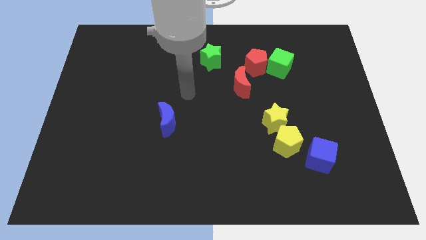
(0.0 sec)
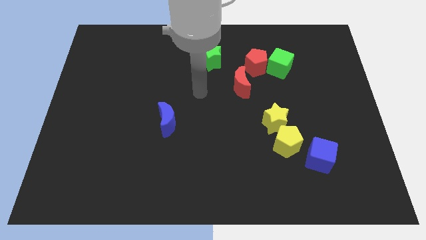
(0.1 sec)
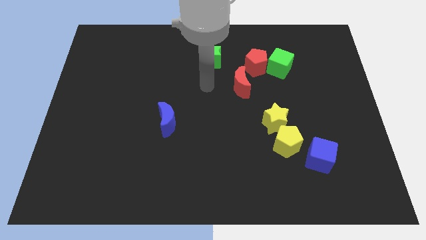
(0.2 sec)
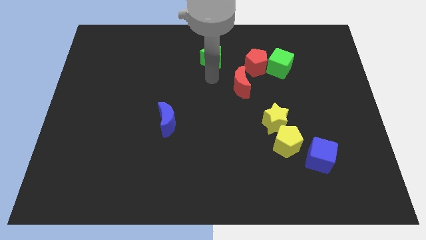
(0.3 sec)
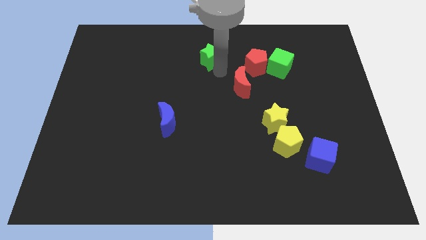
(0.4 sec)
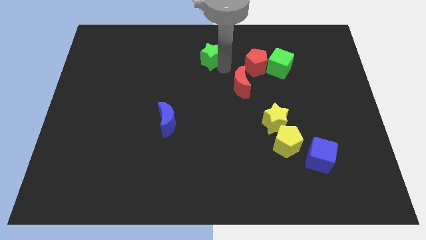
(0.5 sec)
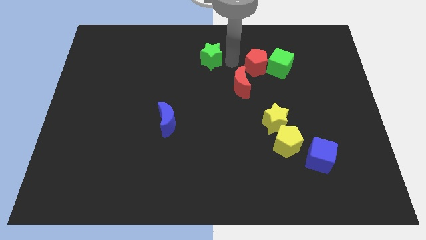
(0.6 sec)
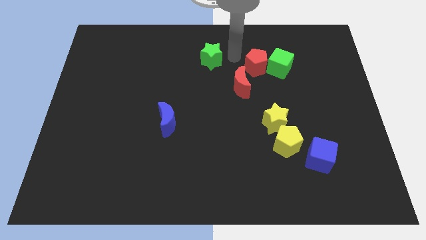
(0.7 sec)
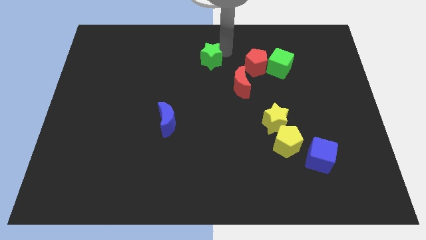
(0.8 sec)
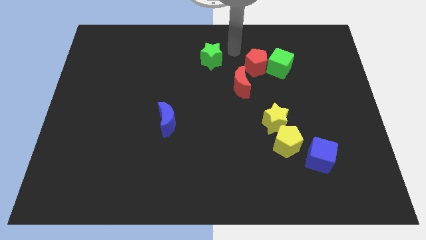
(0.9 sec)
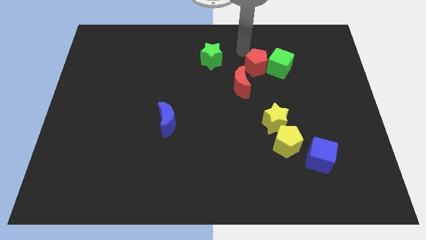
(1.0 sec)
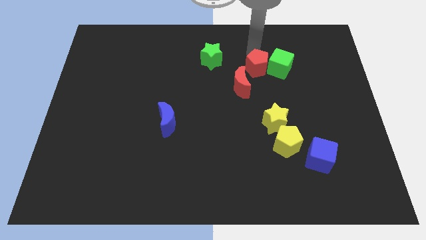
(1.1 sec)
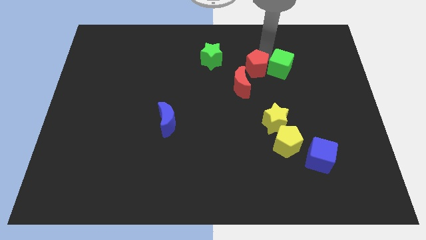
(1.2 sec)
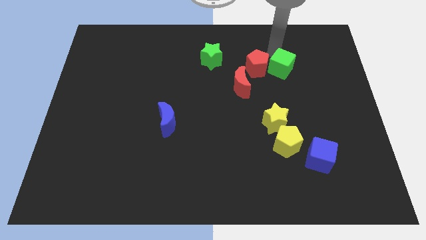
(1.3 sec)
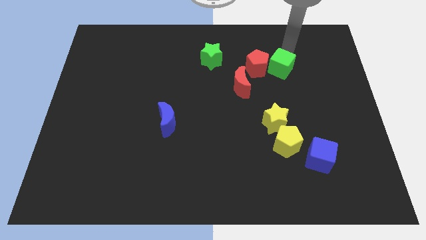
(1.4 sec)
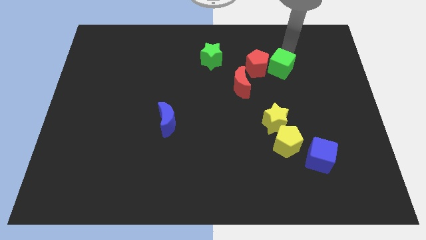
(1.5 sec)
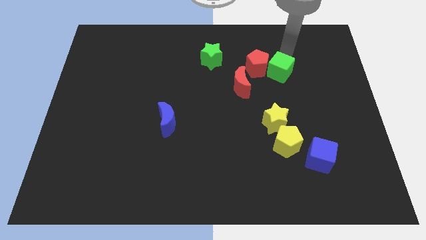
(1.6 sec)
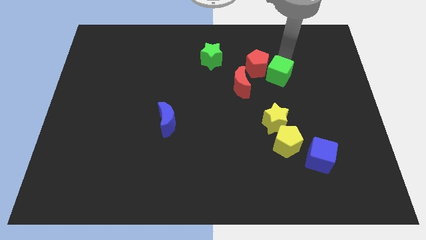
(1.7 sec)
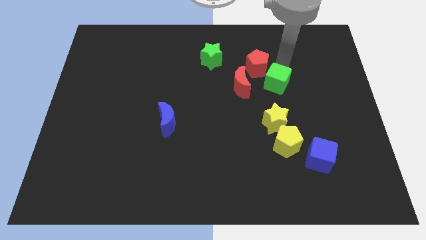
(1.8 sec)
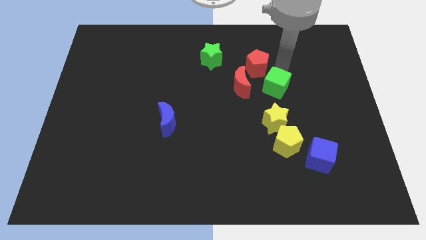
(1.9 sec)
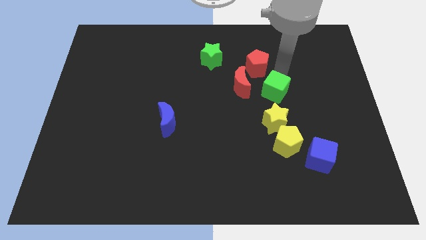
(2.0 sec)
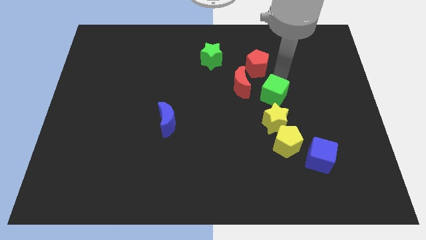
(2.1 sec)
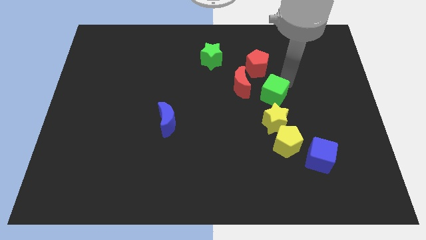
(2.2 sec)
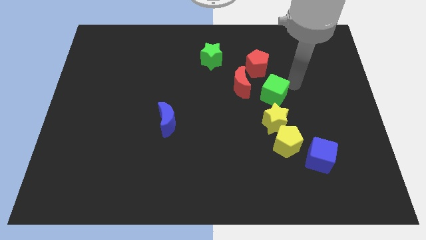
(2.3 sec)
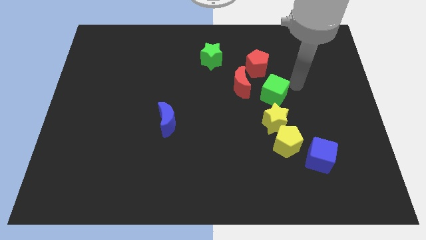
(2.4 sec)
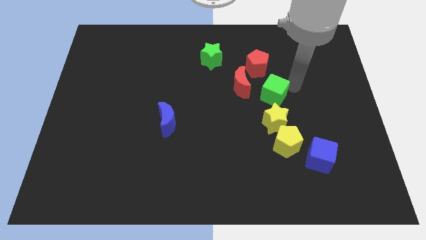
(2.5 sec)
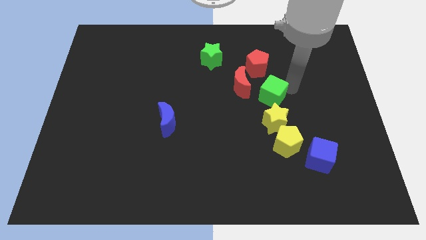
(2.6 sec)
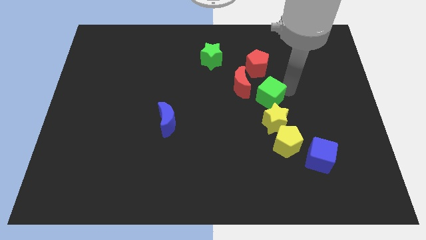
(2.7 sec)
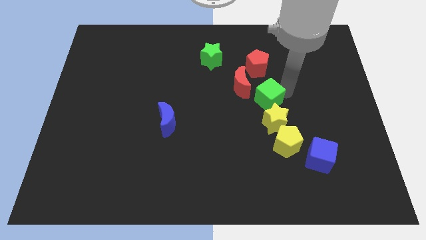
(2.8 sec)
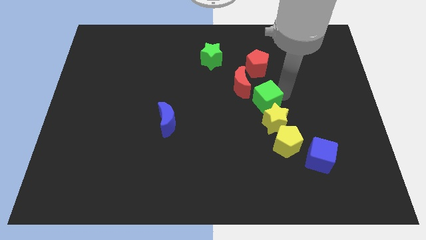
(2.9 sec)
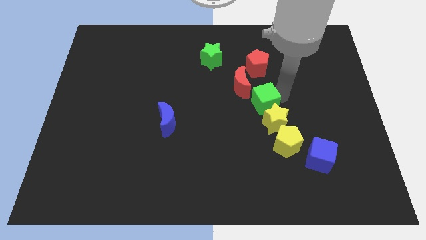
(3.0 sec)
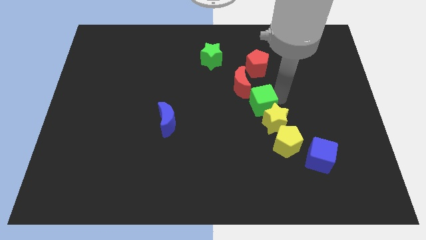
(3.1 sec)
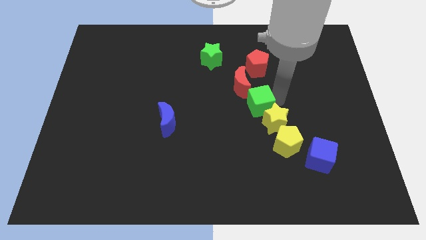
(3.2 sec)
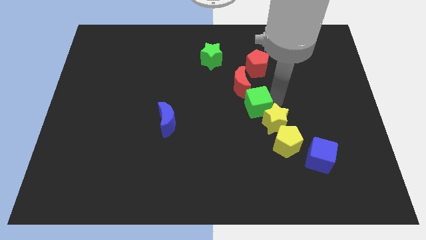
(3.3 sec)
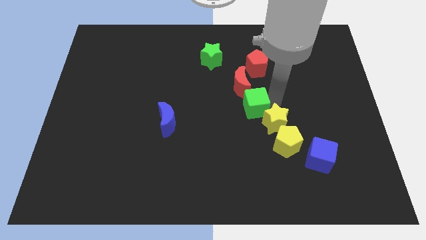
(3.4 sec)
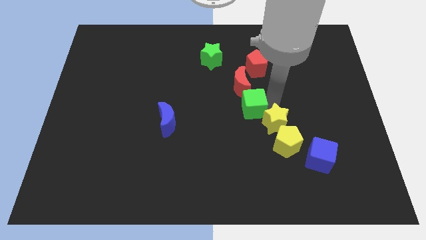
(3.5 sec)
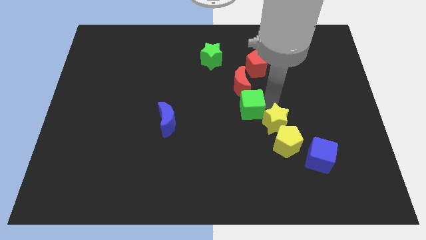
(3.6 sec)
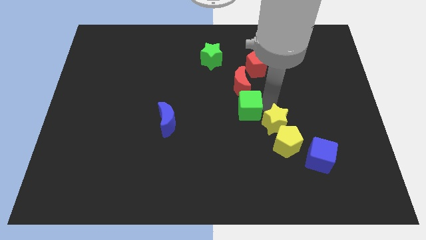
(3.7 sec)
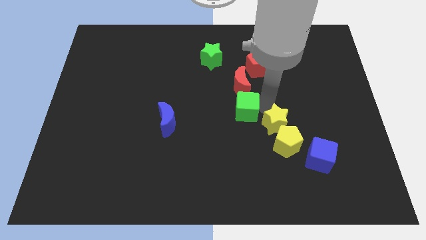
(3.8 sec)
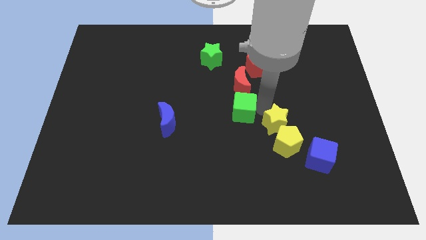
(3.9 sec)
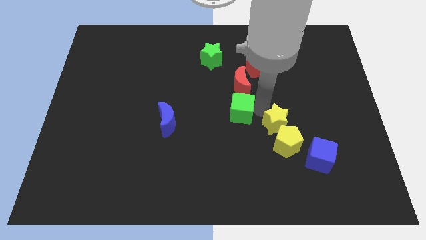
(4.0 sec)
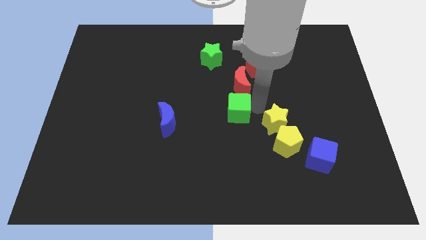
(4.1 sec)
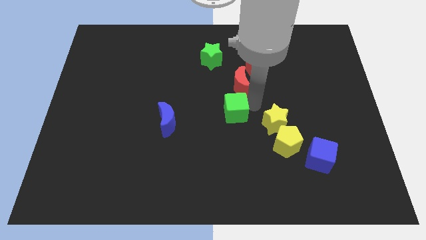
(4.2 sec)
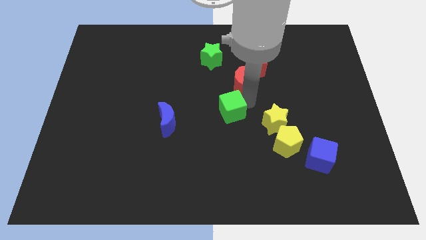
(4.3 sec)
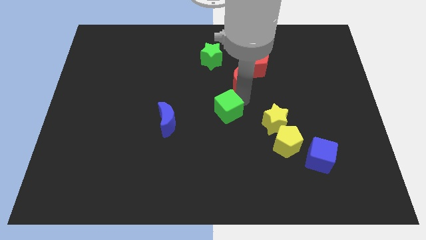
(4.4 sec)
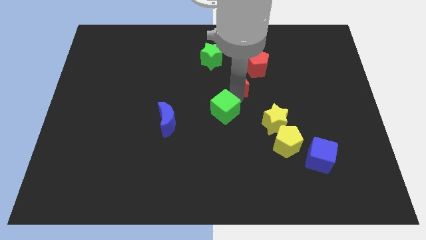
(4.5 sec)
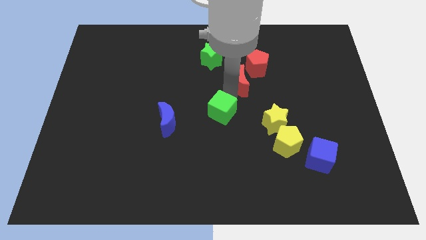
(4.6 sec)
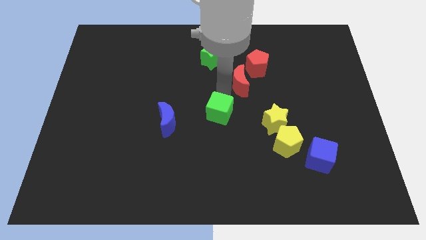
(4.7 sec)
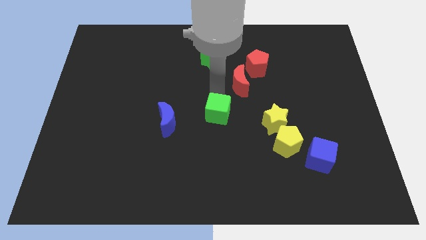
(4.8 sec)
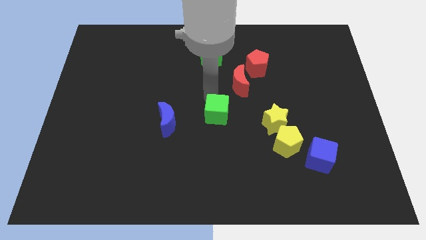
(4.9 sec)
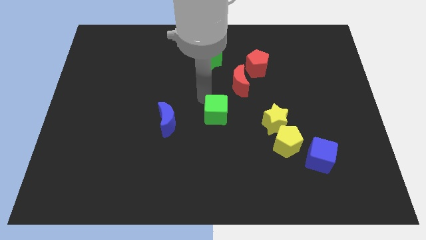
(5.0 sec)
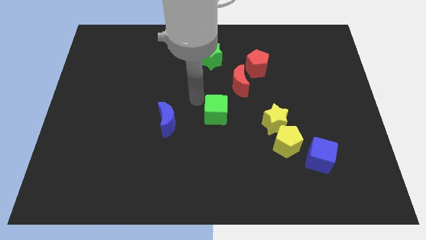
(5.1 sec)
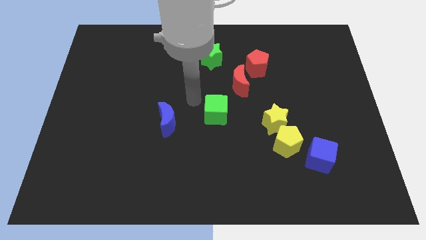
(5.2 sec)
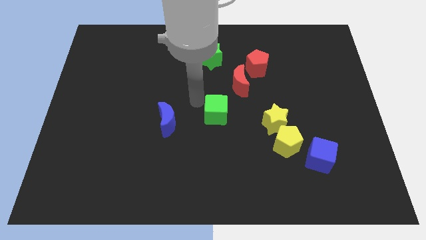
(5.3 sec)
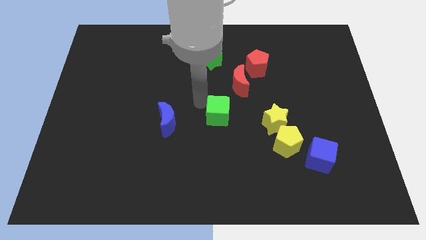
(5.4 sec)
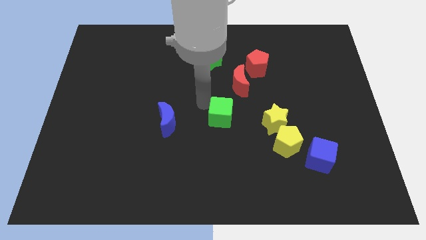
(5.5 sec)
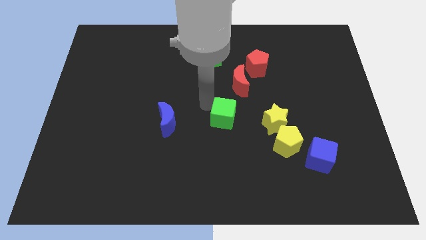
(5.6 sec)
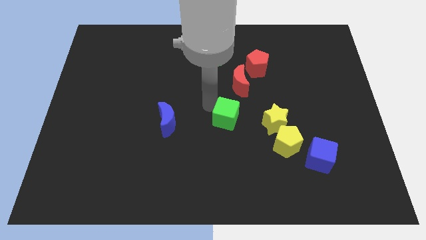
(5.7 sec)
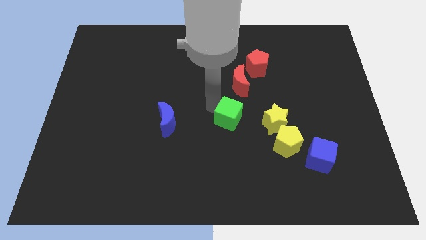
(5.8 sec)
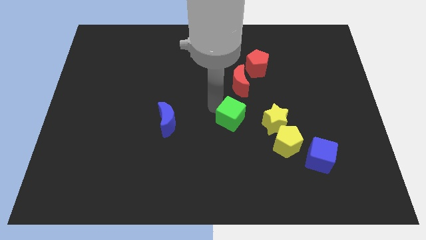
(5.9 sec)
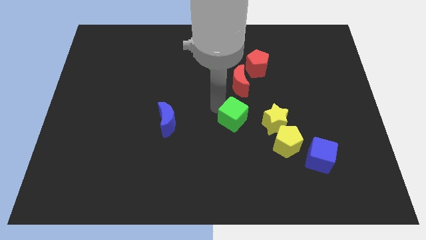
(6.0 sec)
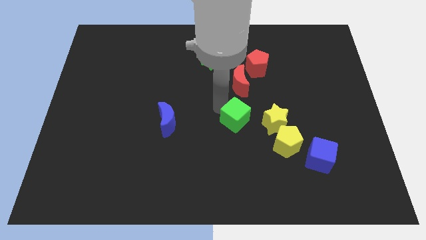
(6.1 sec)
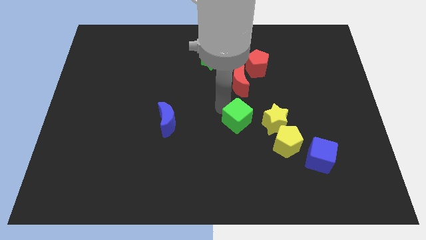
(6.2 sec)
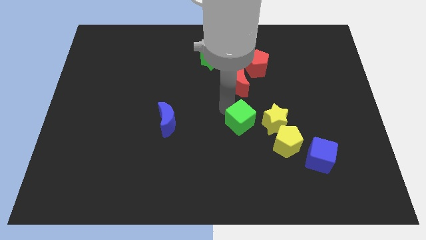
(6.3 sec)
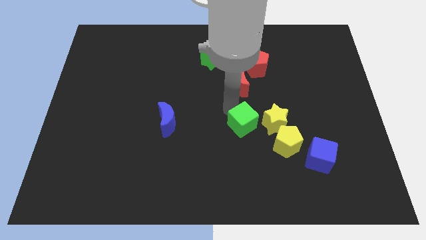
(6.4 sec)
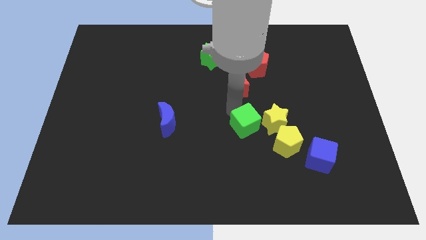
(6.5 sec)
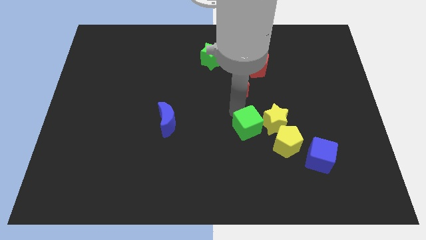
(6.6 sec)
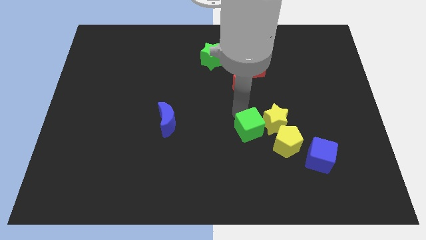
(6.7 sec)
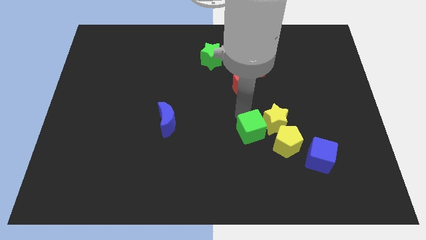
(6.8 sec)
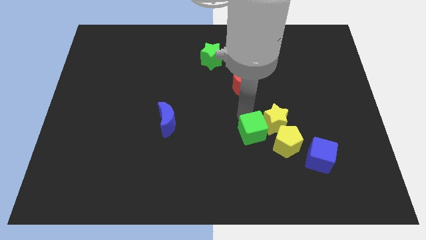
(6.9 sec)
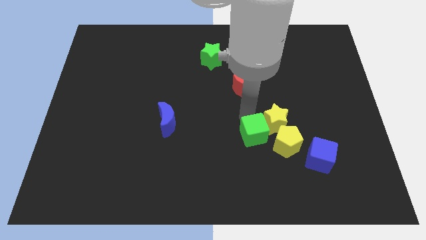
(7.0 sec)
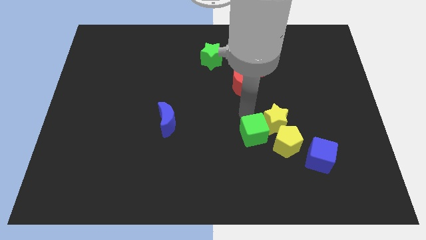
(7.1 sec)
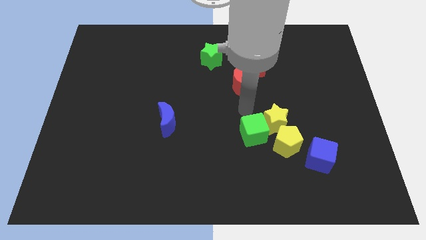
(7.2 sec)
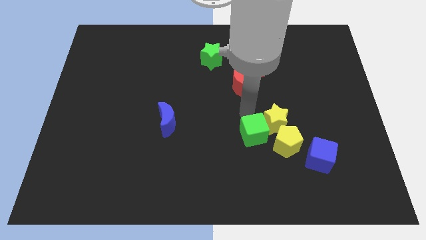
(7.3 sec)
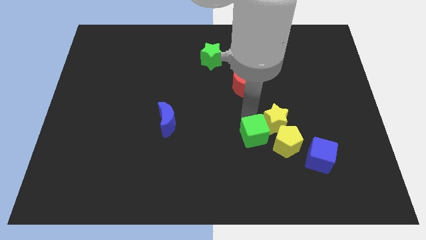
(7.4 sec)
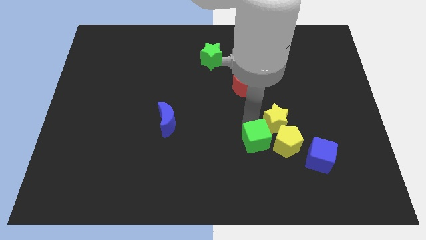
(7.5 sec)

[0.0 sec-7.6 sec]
slide the green cube down

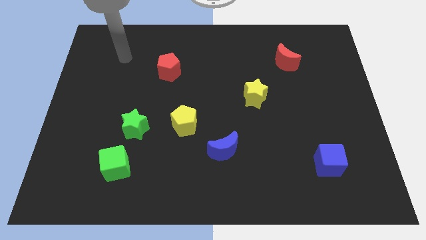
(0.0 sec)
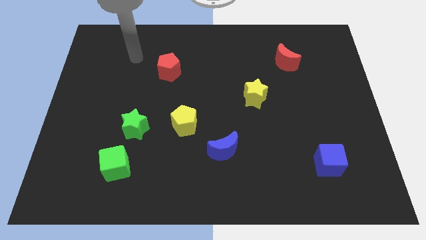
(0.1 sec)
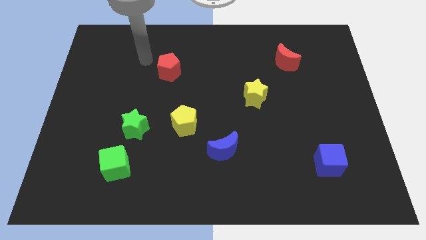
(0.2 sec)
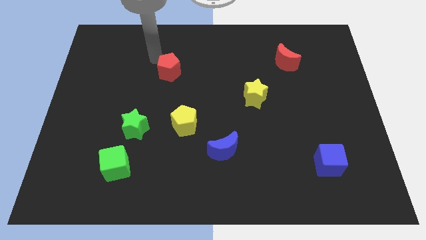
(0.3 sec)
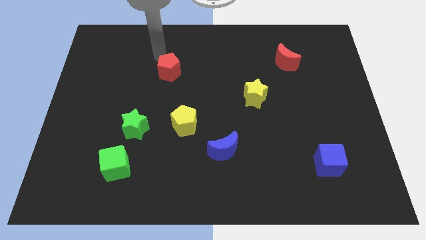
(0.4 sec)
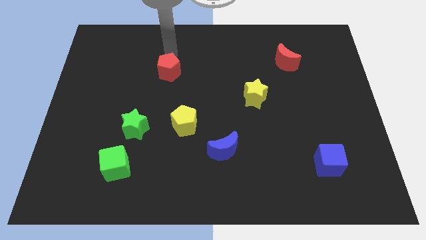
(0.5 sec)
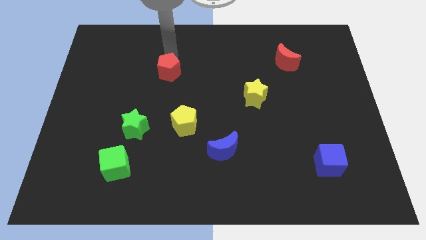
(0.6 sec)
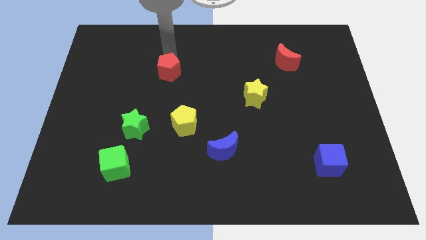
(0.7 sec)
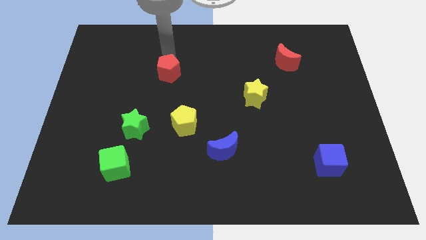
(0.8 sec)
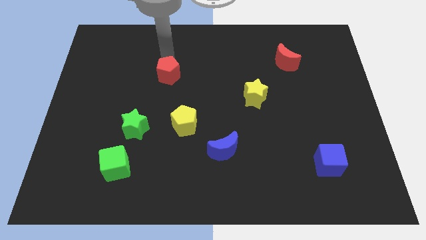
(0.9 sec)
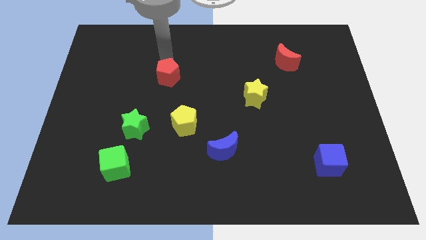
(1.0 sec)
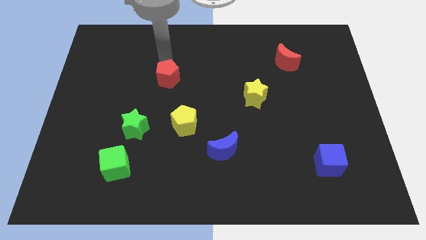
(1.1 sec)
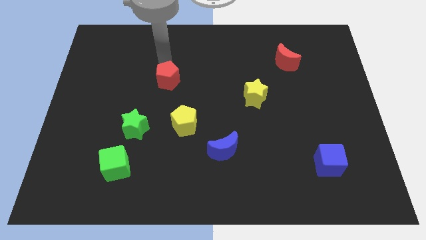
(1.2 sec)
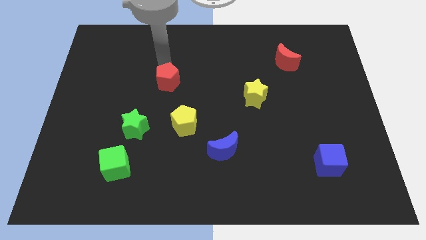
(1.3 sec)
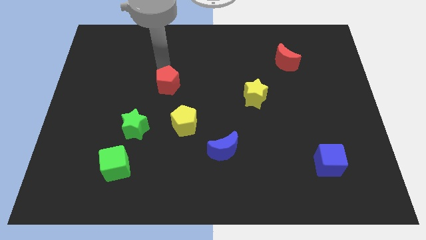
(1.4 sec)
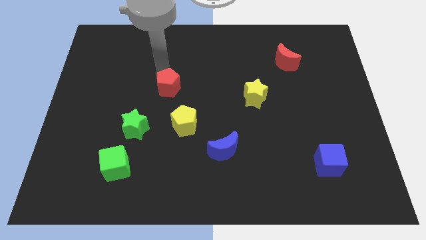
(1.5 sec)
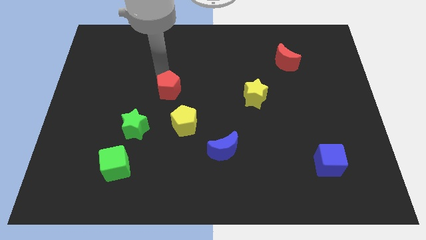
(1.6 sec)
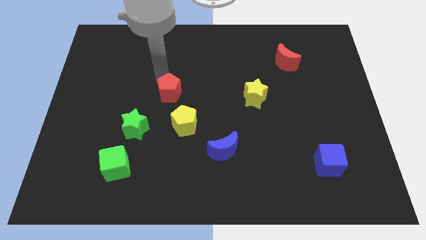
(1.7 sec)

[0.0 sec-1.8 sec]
push the red pentagon down a bit
